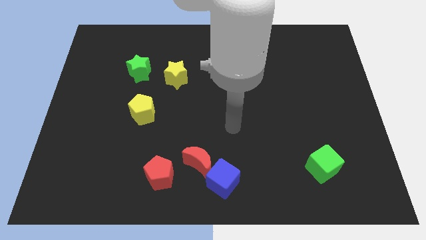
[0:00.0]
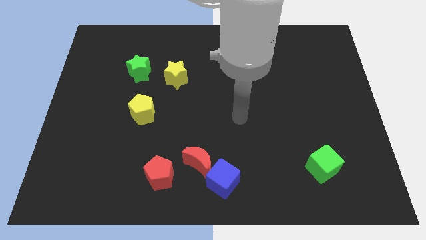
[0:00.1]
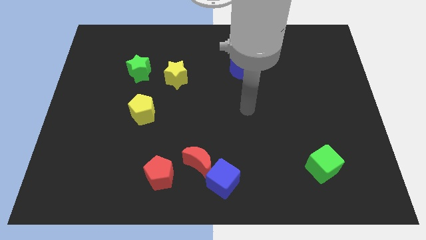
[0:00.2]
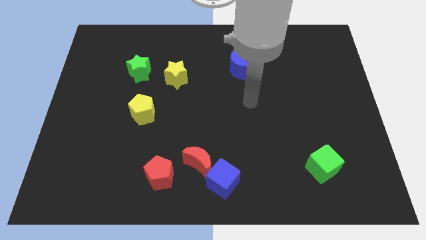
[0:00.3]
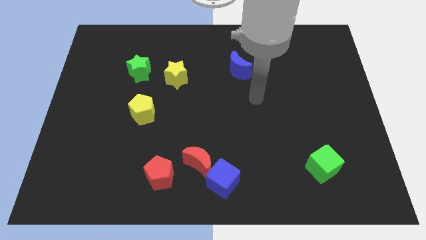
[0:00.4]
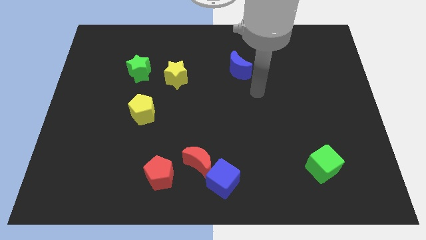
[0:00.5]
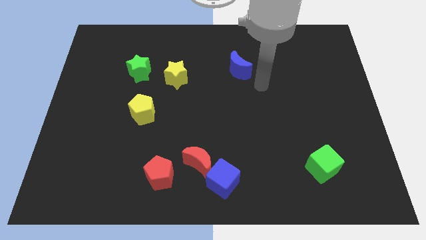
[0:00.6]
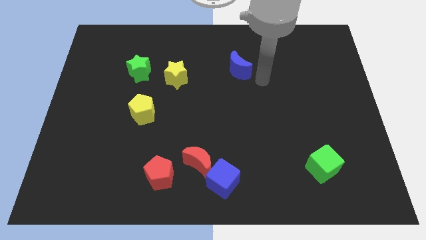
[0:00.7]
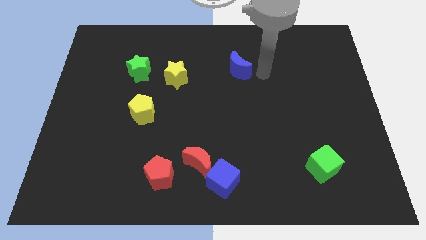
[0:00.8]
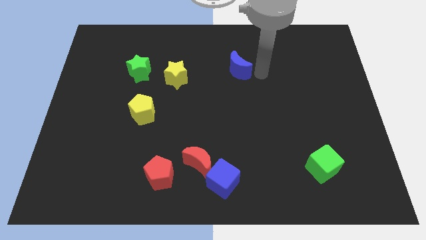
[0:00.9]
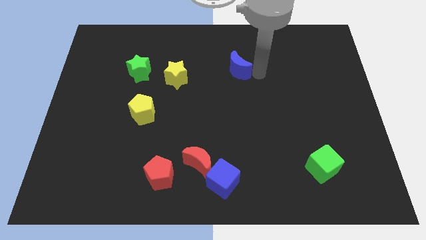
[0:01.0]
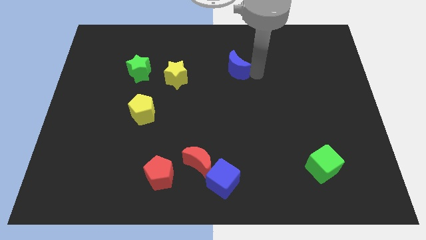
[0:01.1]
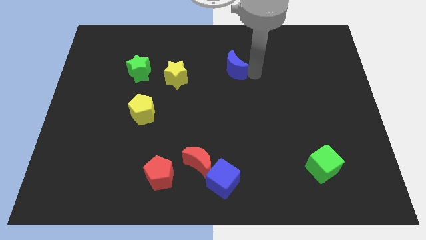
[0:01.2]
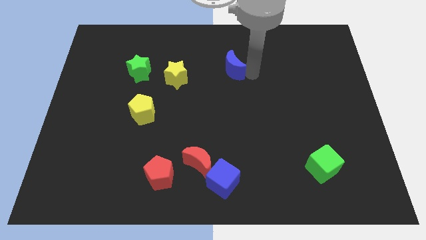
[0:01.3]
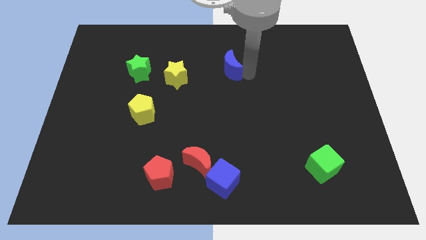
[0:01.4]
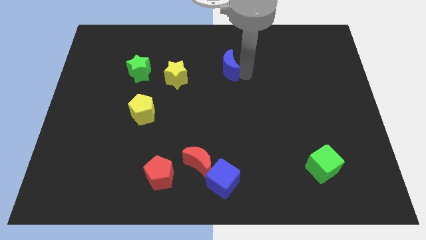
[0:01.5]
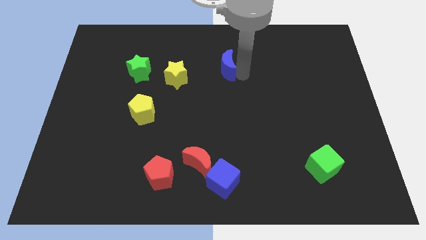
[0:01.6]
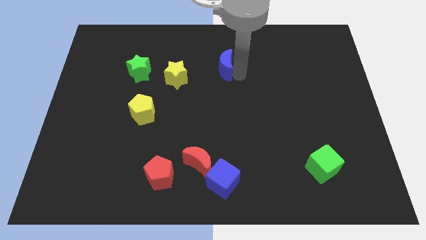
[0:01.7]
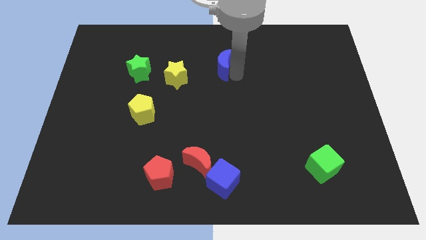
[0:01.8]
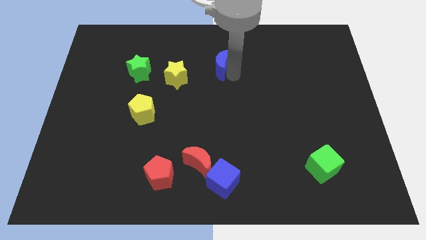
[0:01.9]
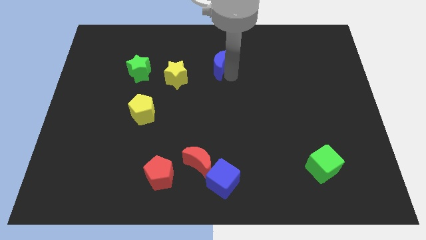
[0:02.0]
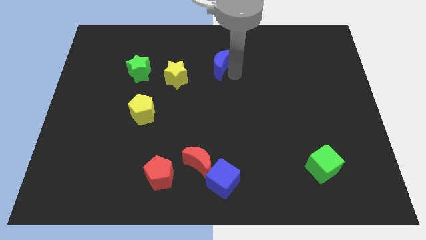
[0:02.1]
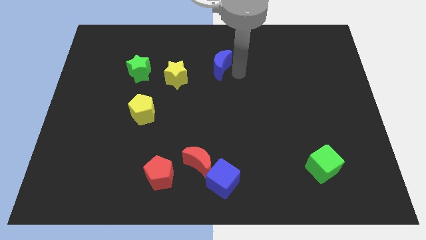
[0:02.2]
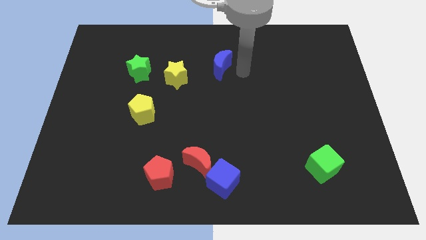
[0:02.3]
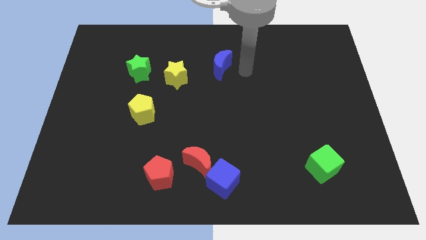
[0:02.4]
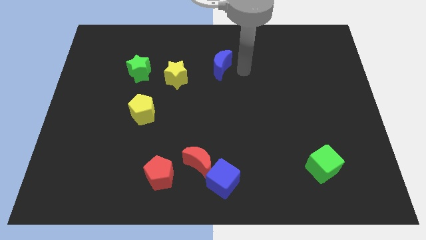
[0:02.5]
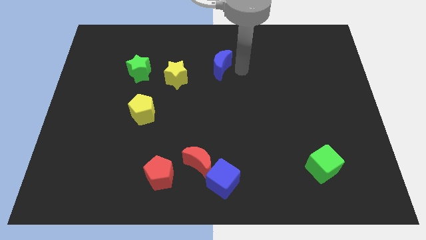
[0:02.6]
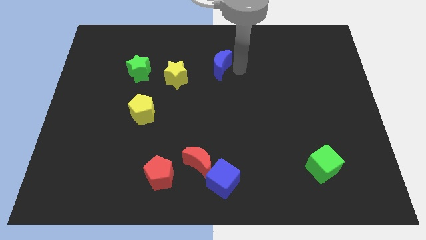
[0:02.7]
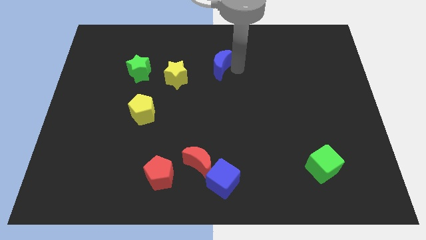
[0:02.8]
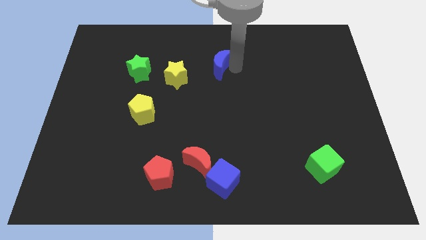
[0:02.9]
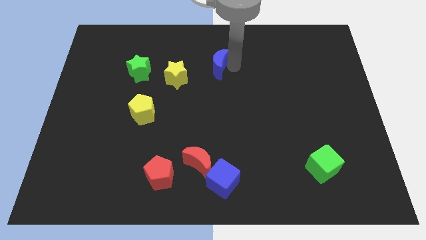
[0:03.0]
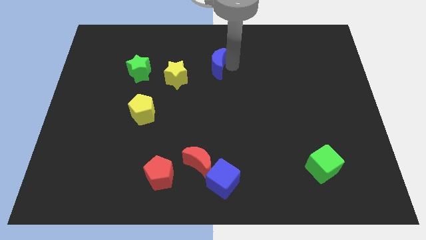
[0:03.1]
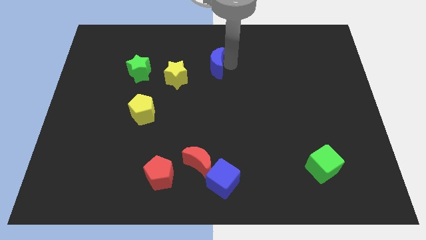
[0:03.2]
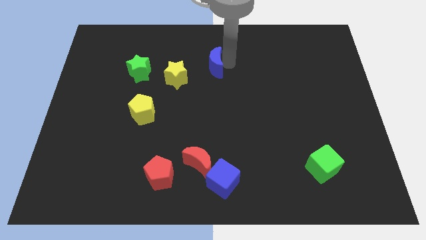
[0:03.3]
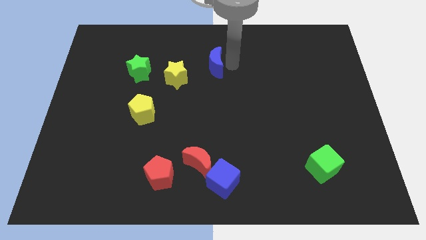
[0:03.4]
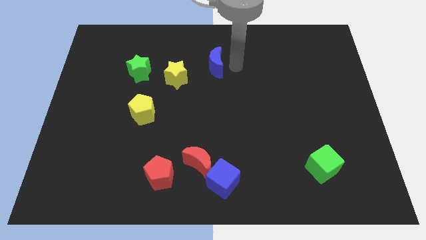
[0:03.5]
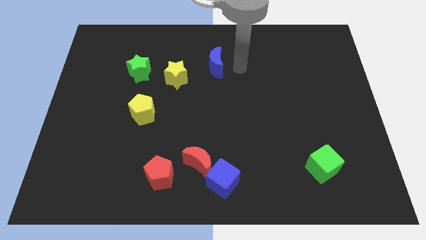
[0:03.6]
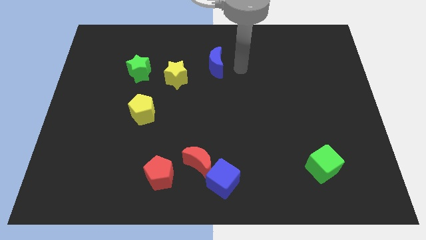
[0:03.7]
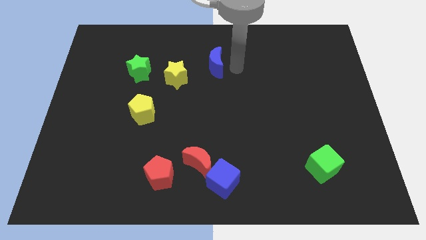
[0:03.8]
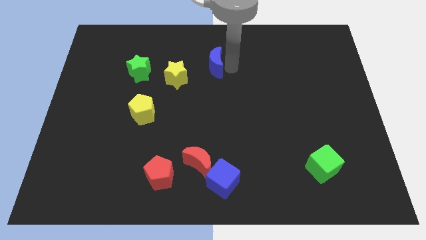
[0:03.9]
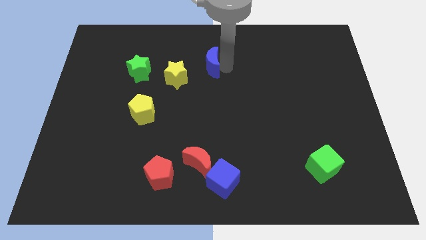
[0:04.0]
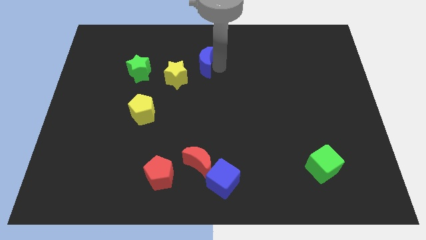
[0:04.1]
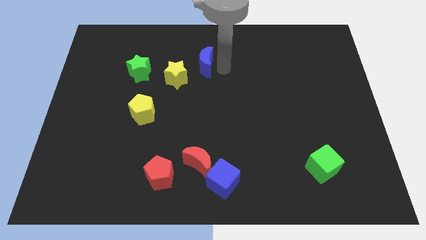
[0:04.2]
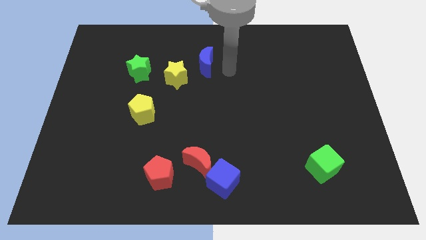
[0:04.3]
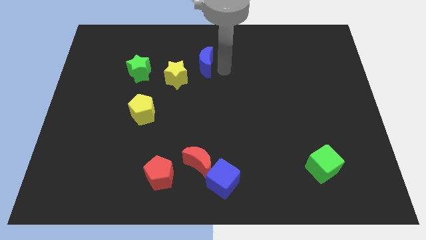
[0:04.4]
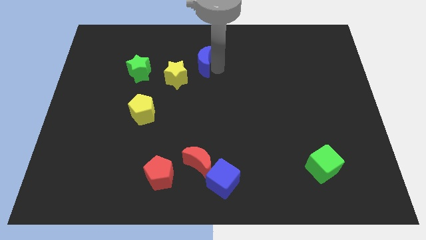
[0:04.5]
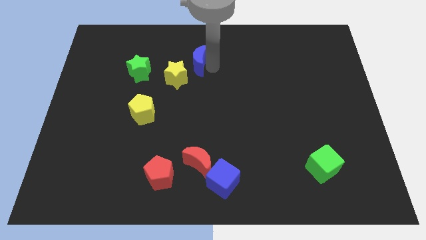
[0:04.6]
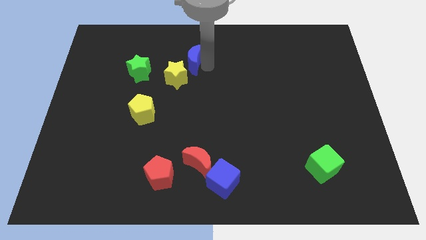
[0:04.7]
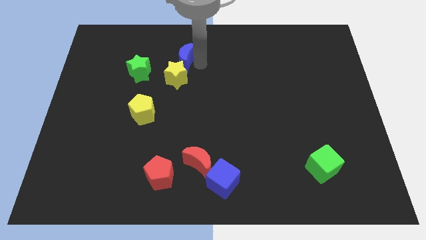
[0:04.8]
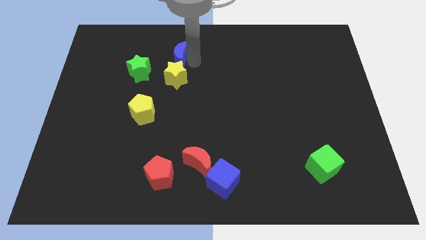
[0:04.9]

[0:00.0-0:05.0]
put the blue moon to the top right side of the green star

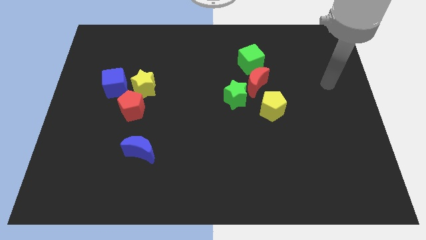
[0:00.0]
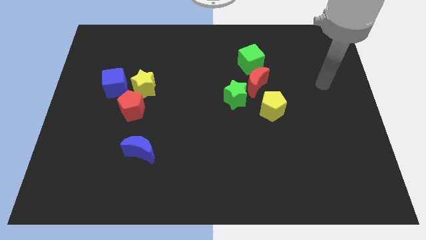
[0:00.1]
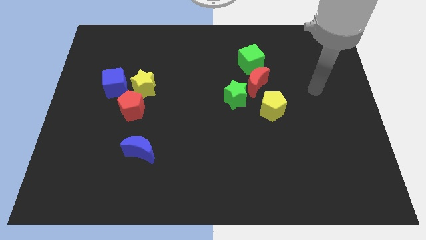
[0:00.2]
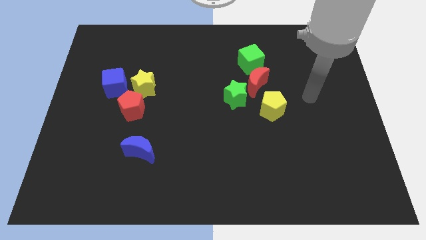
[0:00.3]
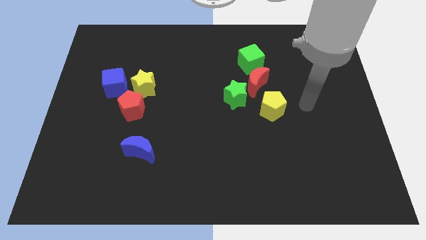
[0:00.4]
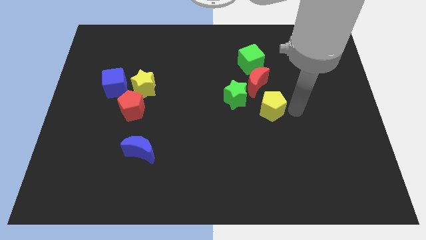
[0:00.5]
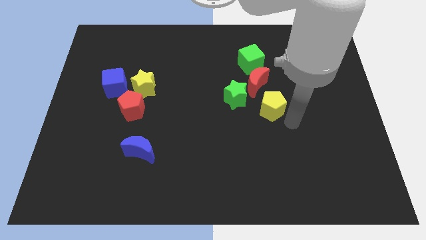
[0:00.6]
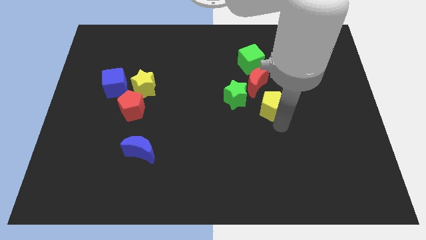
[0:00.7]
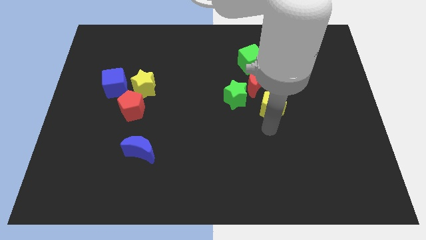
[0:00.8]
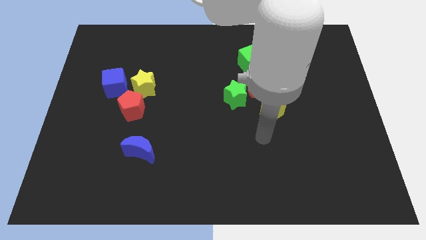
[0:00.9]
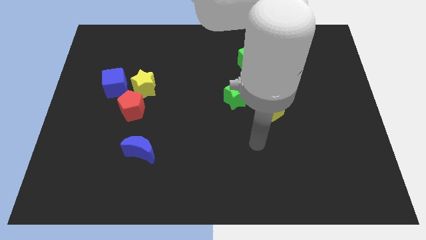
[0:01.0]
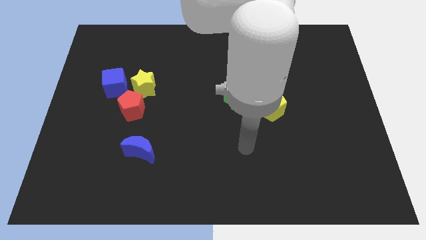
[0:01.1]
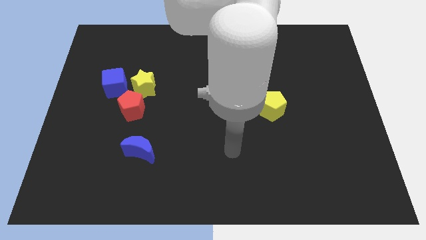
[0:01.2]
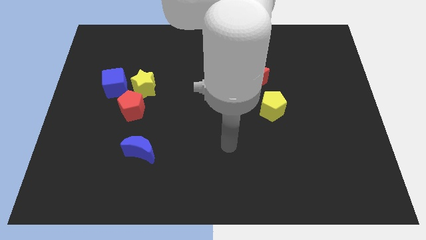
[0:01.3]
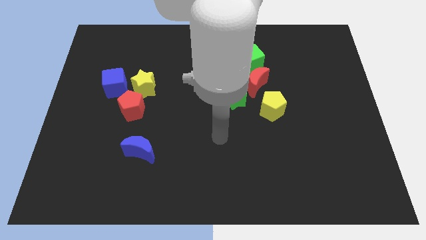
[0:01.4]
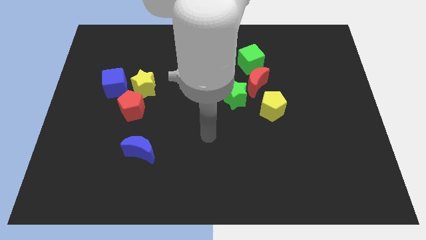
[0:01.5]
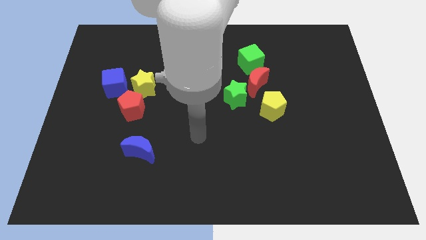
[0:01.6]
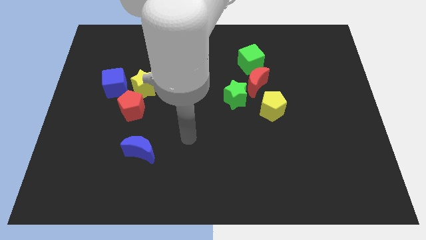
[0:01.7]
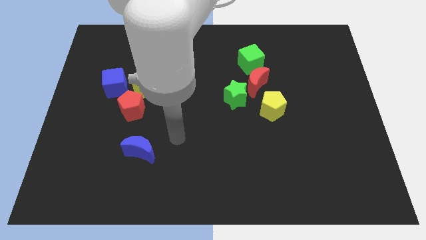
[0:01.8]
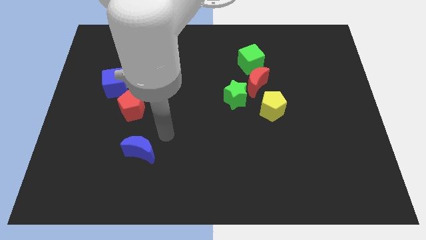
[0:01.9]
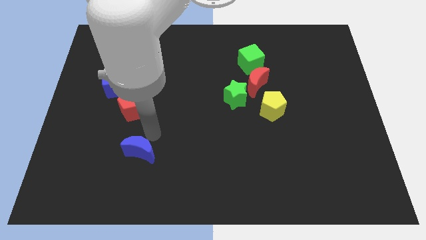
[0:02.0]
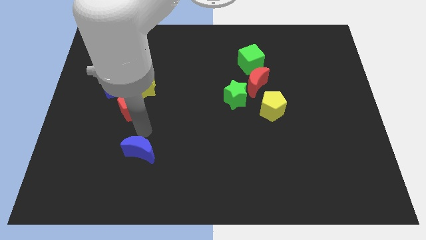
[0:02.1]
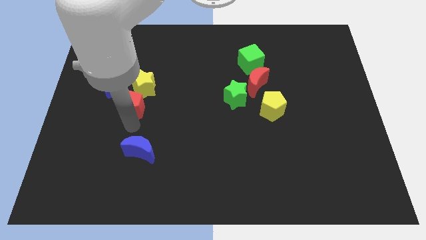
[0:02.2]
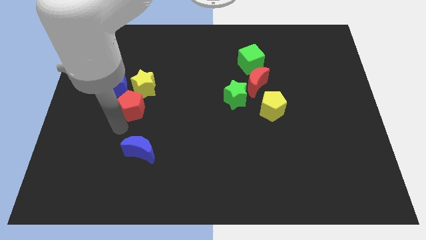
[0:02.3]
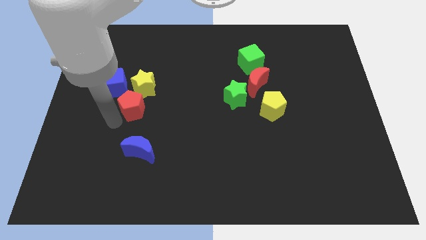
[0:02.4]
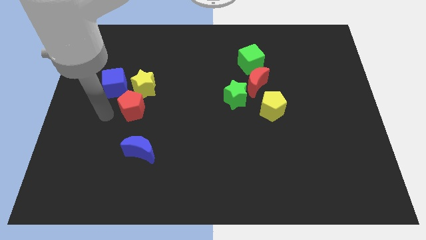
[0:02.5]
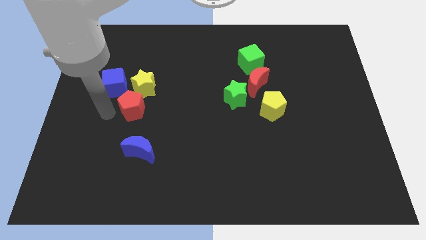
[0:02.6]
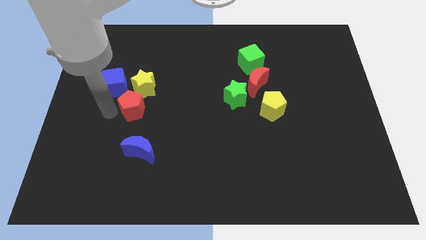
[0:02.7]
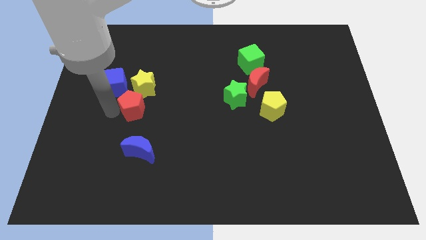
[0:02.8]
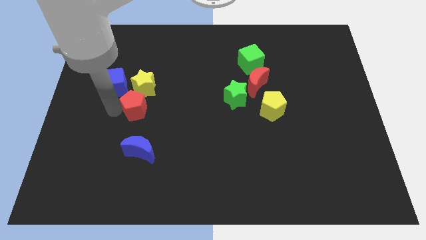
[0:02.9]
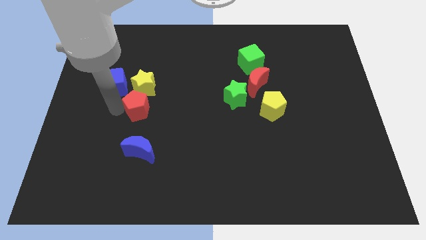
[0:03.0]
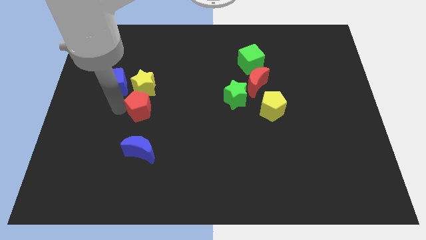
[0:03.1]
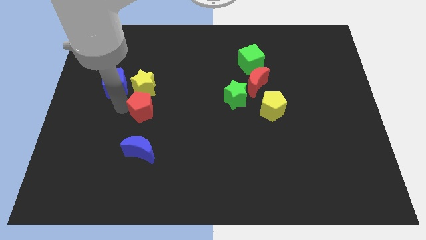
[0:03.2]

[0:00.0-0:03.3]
push the red pentagon diagonally down and to the right of the yellow star
